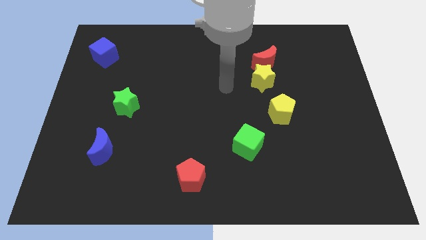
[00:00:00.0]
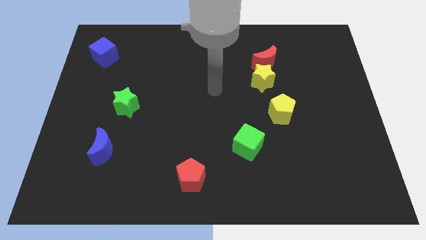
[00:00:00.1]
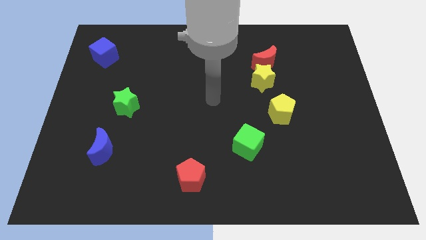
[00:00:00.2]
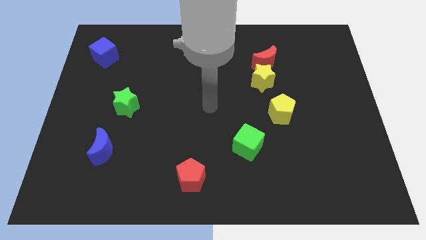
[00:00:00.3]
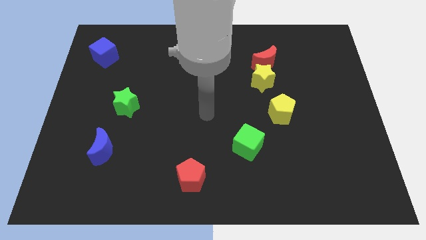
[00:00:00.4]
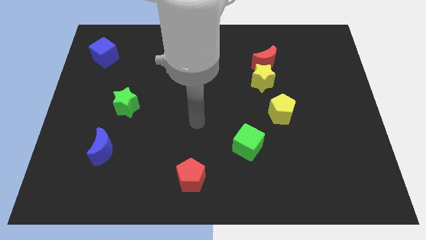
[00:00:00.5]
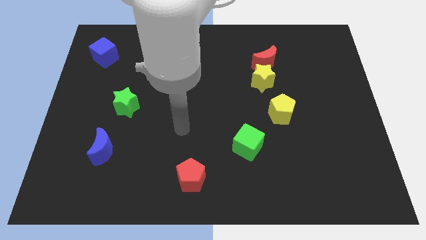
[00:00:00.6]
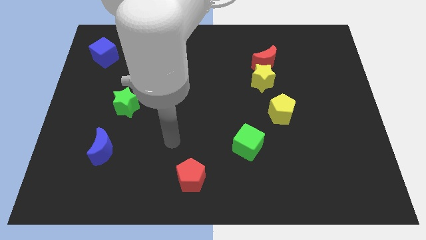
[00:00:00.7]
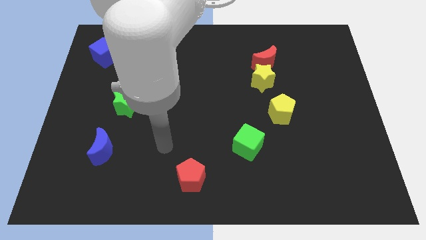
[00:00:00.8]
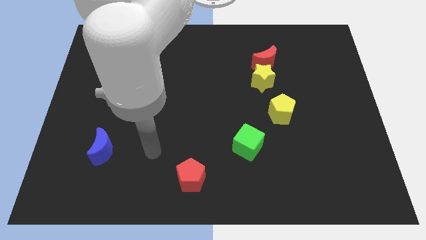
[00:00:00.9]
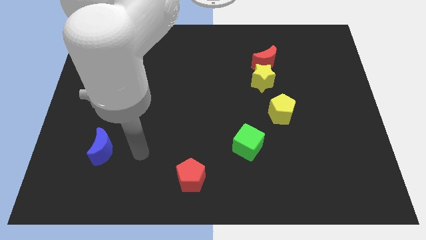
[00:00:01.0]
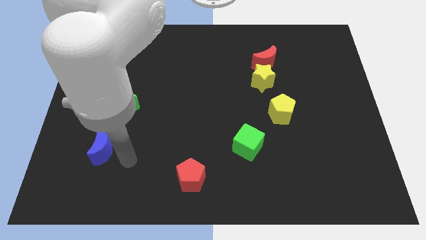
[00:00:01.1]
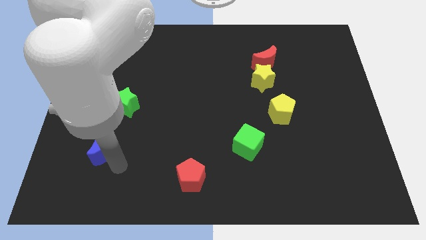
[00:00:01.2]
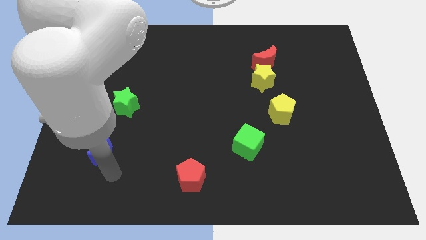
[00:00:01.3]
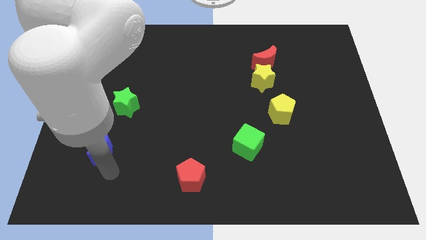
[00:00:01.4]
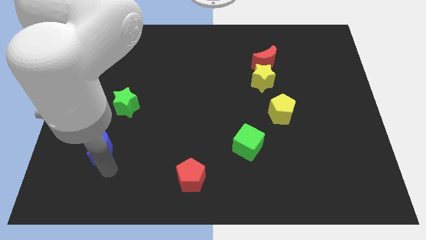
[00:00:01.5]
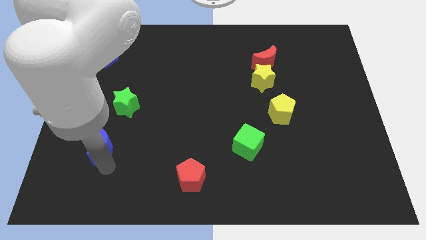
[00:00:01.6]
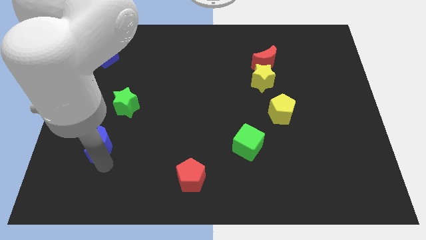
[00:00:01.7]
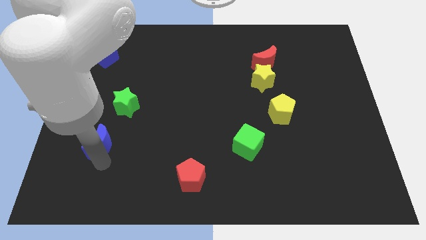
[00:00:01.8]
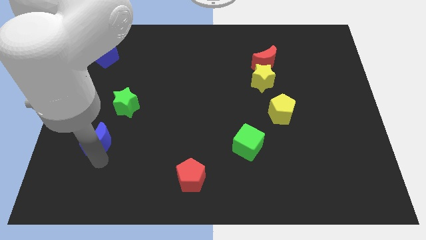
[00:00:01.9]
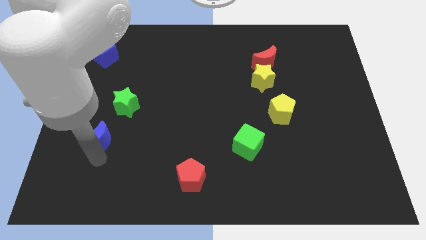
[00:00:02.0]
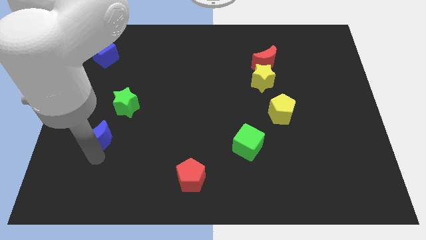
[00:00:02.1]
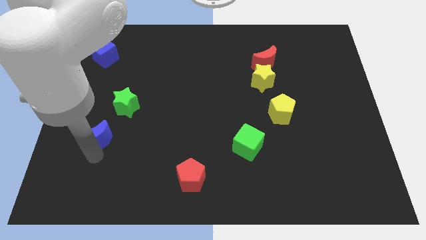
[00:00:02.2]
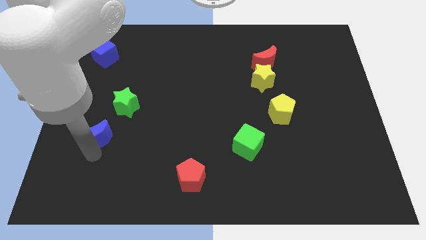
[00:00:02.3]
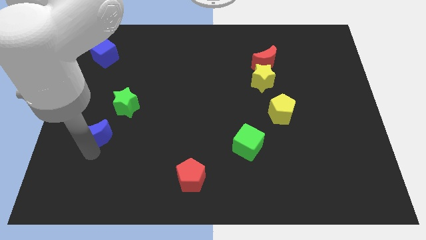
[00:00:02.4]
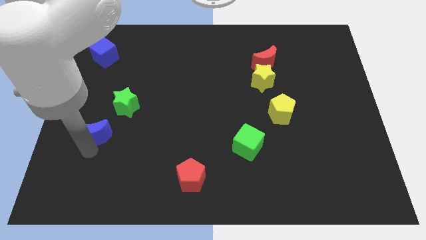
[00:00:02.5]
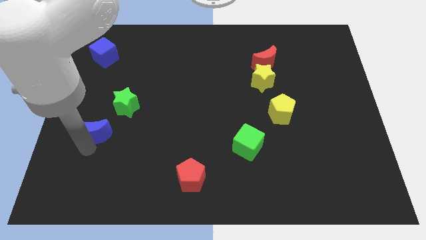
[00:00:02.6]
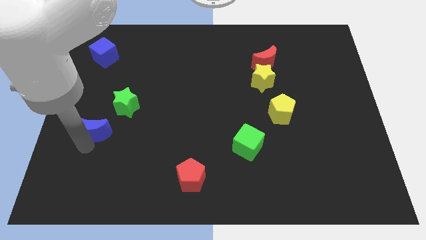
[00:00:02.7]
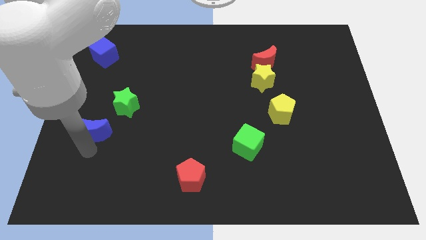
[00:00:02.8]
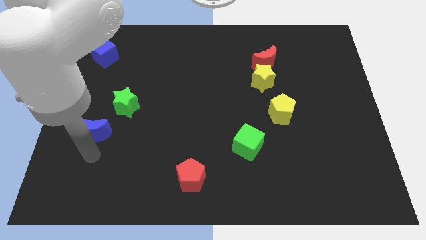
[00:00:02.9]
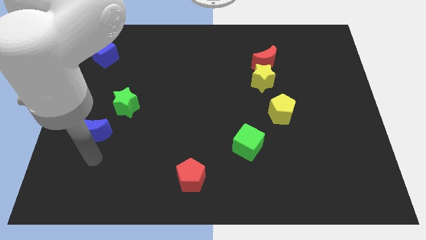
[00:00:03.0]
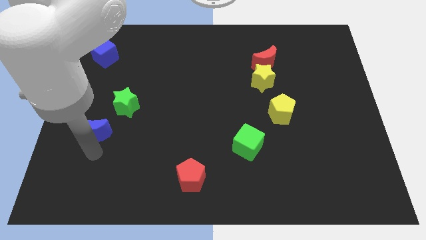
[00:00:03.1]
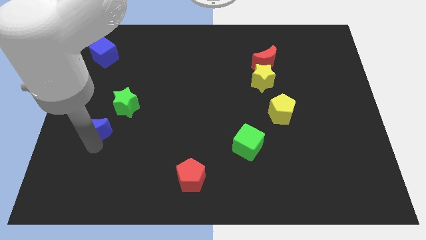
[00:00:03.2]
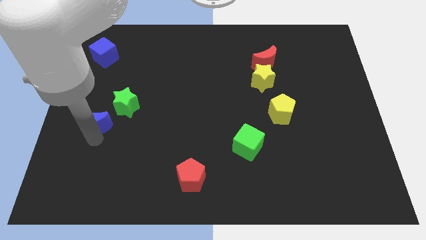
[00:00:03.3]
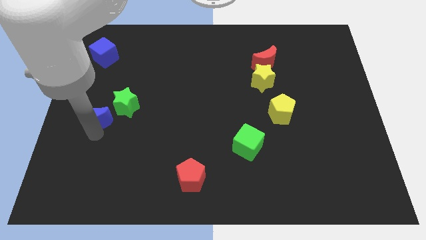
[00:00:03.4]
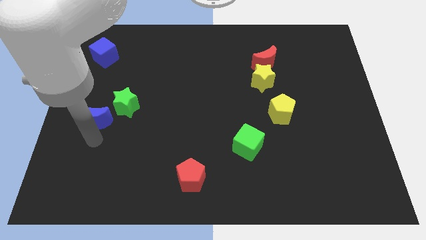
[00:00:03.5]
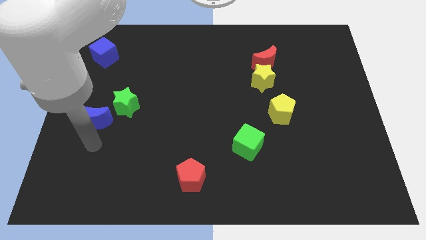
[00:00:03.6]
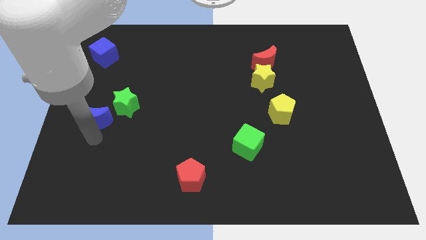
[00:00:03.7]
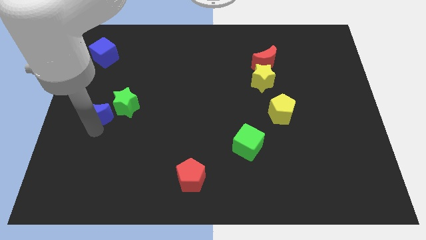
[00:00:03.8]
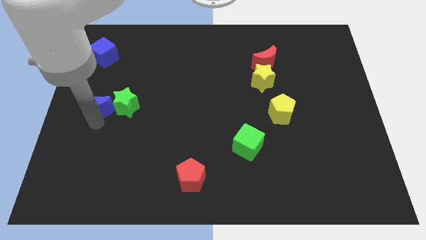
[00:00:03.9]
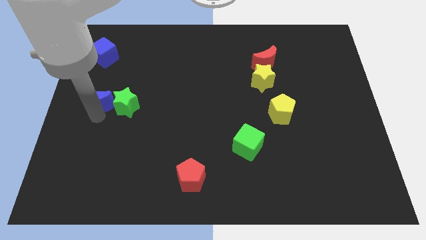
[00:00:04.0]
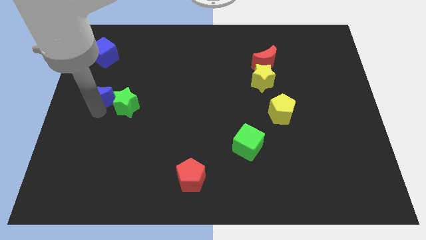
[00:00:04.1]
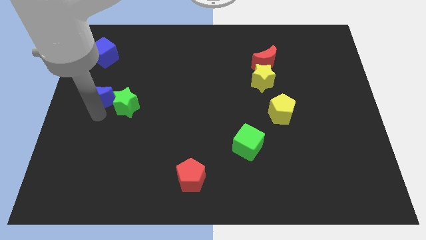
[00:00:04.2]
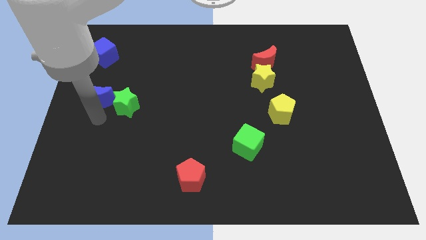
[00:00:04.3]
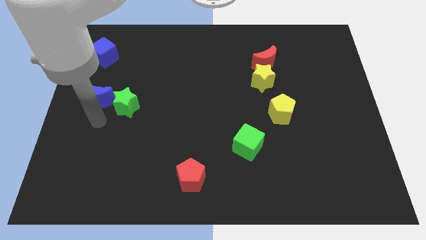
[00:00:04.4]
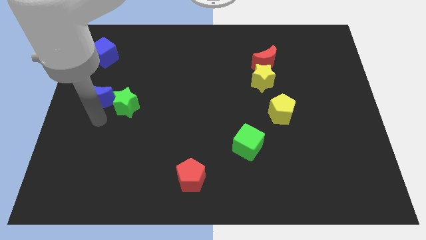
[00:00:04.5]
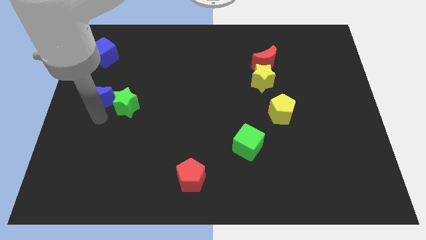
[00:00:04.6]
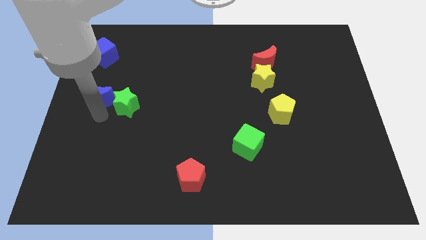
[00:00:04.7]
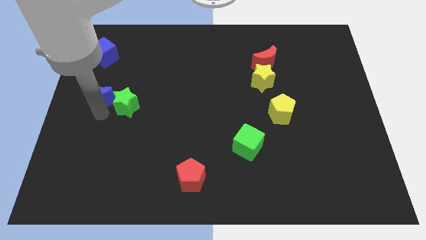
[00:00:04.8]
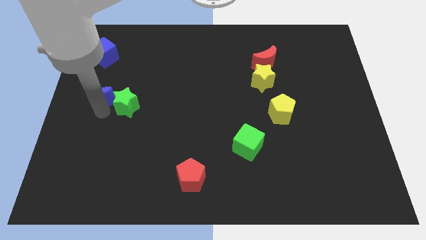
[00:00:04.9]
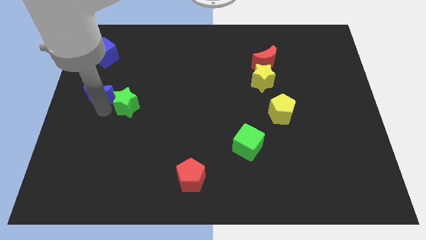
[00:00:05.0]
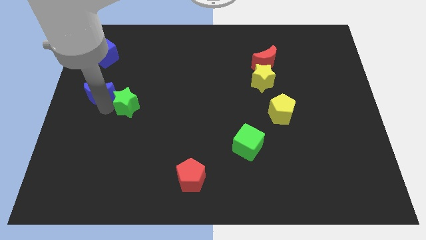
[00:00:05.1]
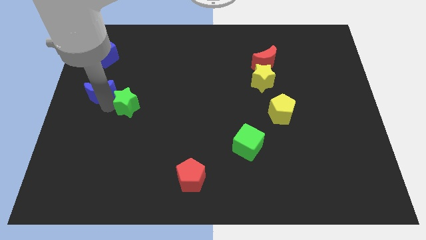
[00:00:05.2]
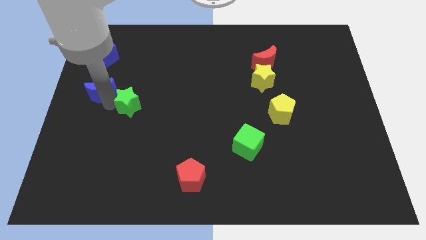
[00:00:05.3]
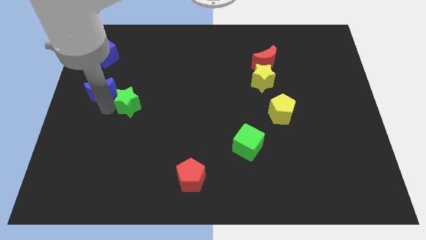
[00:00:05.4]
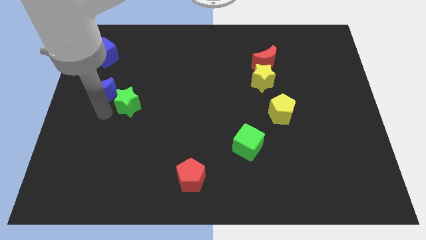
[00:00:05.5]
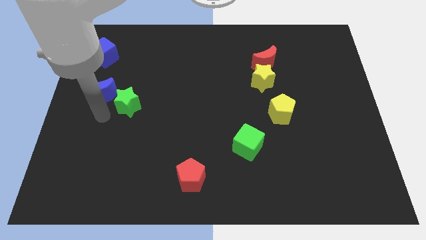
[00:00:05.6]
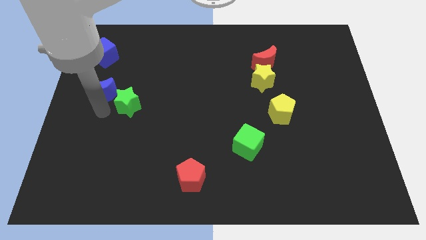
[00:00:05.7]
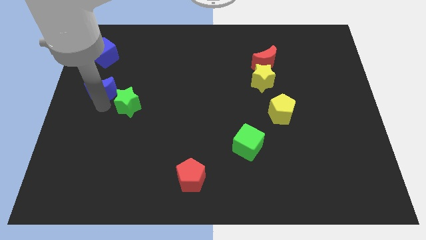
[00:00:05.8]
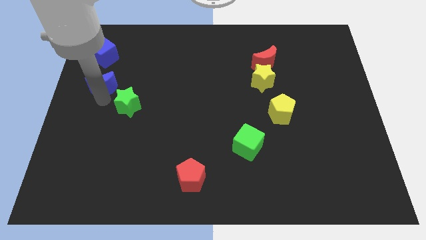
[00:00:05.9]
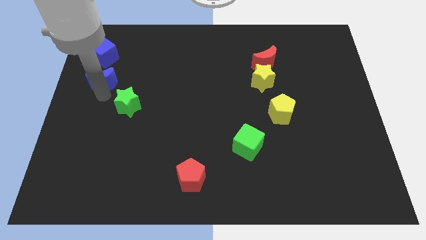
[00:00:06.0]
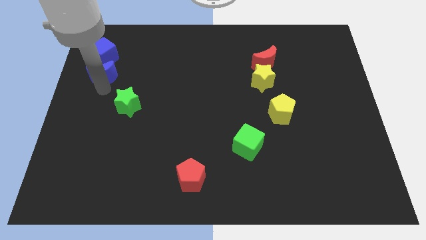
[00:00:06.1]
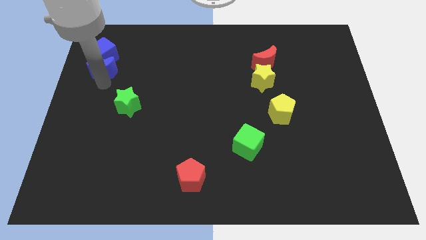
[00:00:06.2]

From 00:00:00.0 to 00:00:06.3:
put the blue moon towards the blue cube

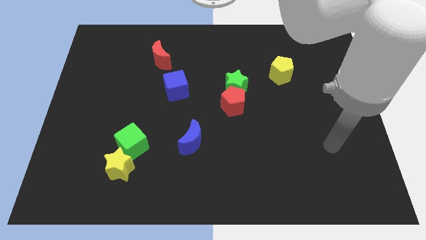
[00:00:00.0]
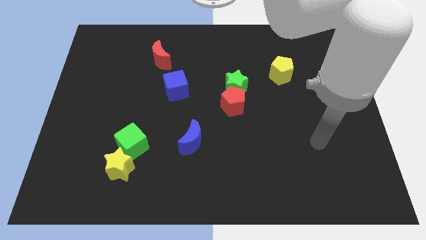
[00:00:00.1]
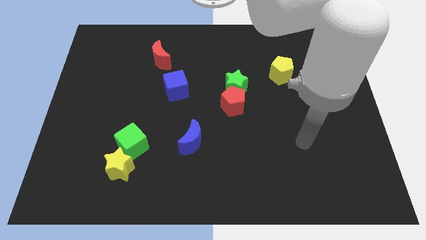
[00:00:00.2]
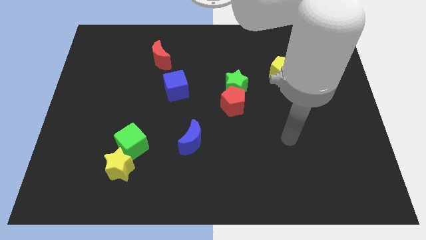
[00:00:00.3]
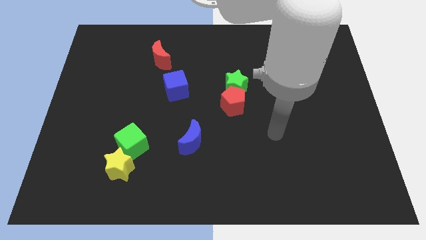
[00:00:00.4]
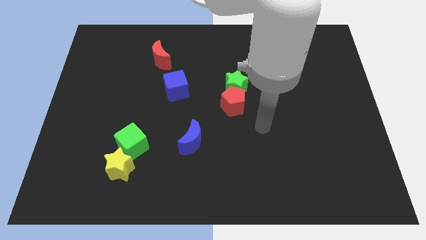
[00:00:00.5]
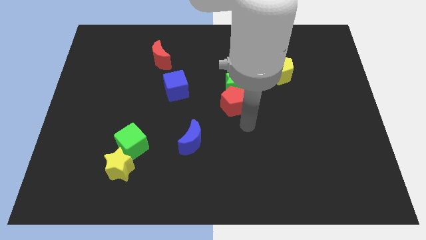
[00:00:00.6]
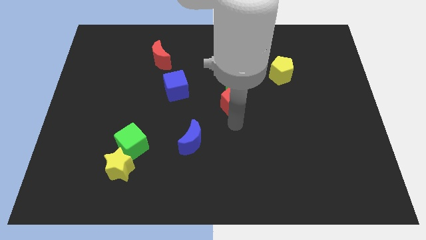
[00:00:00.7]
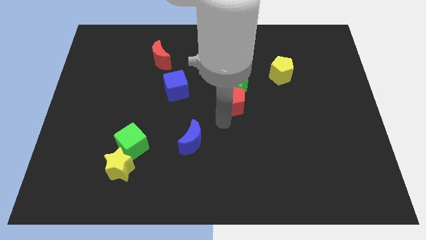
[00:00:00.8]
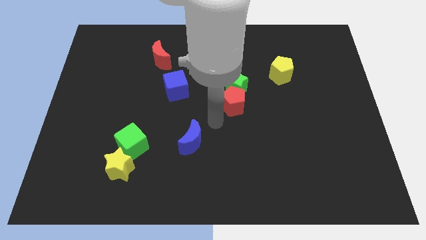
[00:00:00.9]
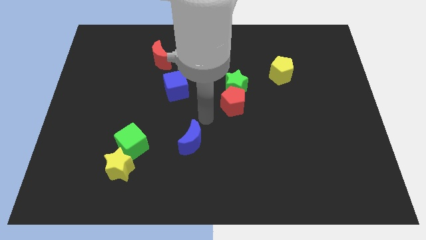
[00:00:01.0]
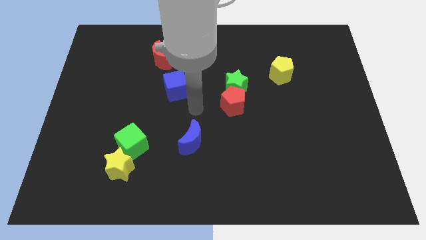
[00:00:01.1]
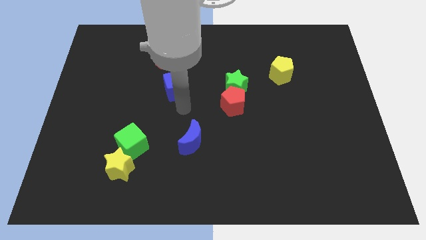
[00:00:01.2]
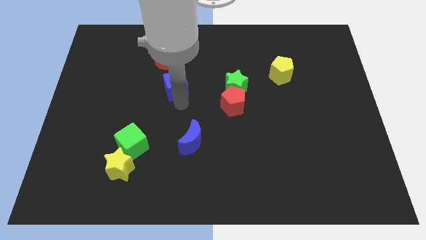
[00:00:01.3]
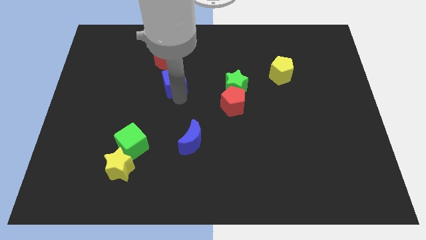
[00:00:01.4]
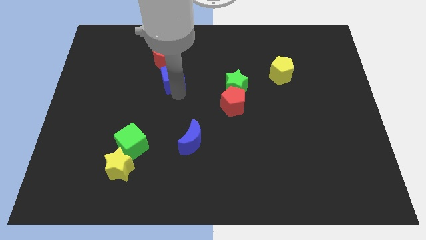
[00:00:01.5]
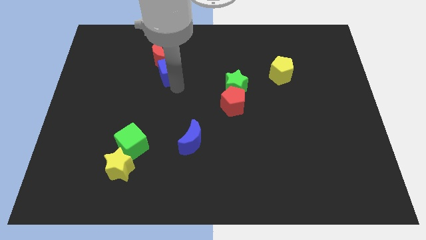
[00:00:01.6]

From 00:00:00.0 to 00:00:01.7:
move the blue cube to the red moon
